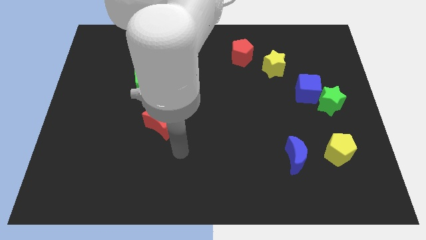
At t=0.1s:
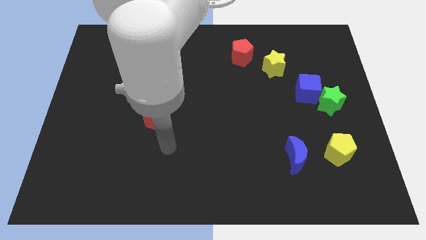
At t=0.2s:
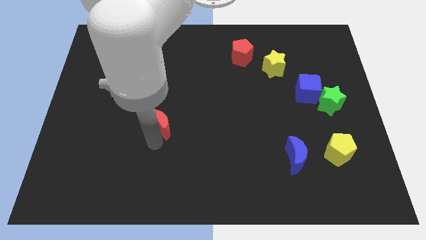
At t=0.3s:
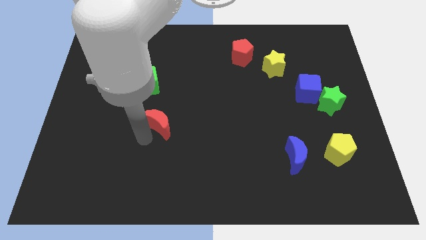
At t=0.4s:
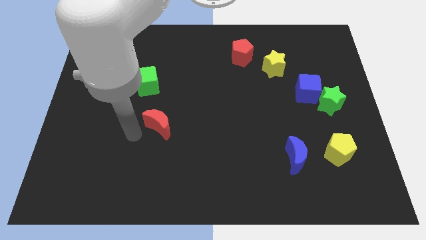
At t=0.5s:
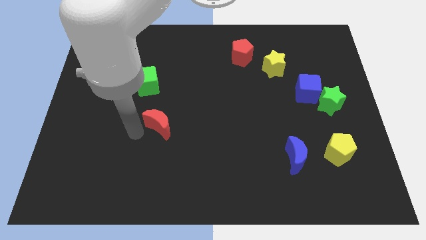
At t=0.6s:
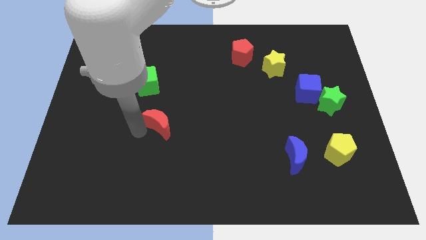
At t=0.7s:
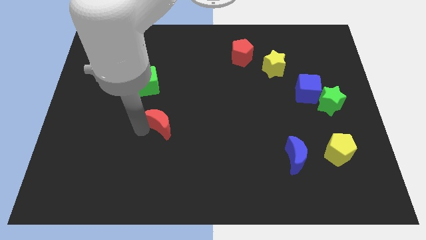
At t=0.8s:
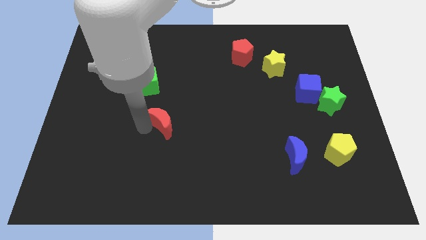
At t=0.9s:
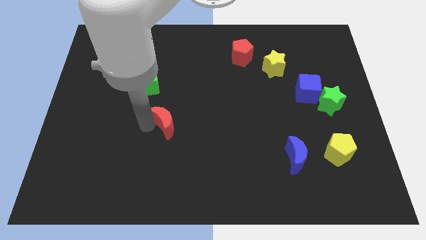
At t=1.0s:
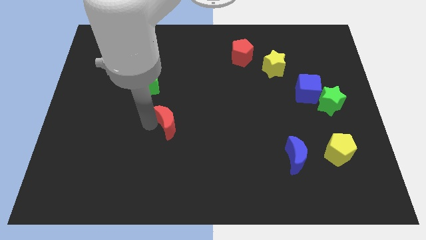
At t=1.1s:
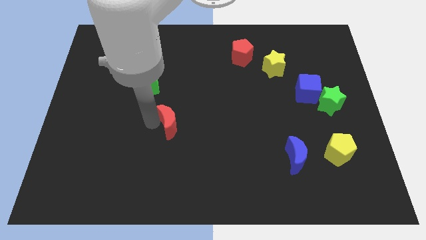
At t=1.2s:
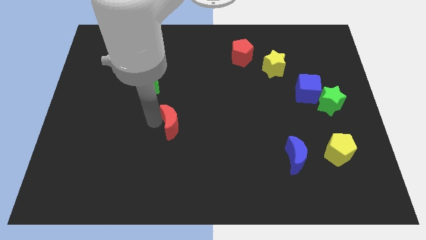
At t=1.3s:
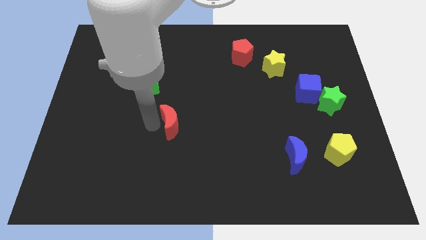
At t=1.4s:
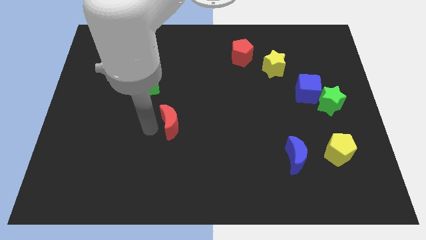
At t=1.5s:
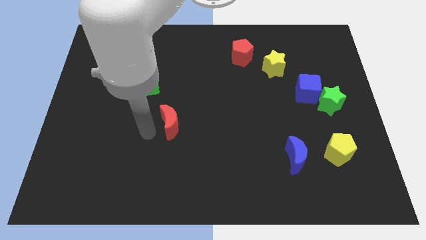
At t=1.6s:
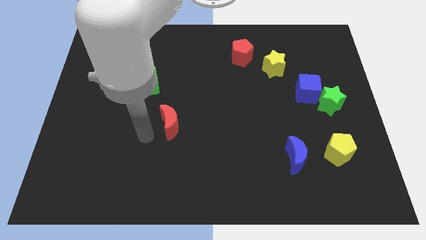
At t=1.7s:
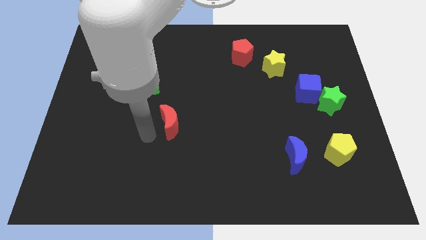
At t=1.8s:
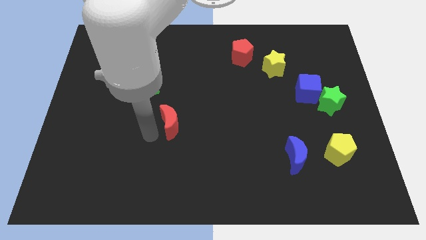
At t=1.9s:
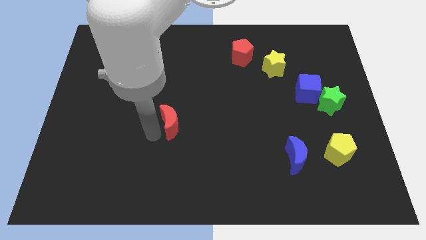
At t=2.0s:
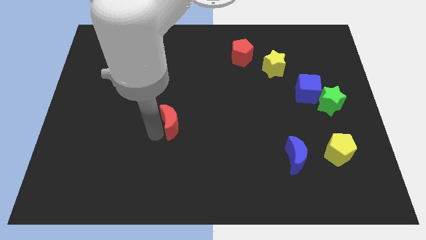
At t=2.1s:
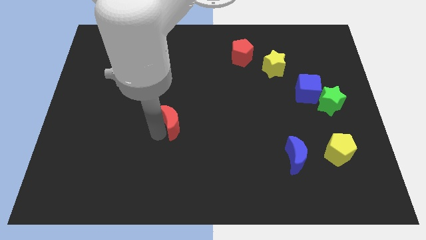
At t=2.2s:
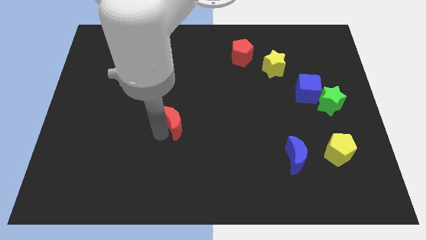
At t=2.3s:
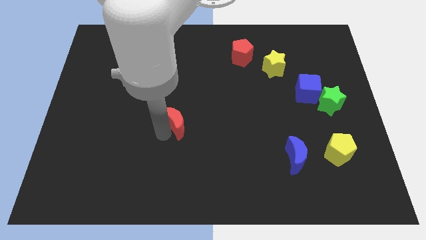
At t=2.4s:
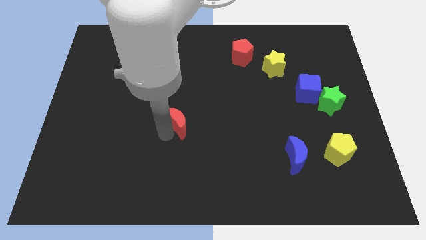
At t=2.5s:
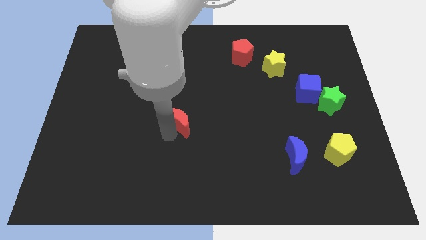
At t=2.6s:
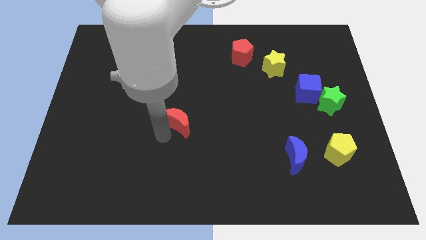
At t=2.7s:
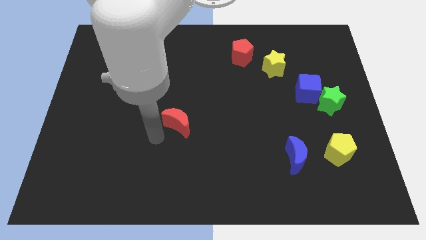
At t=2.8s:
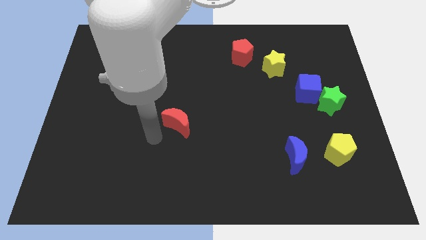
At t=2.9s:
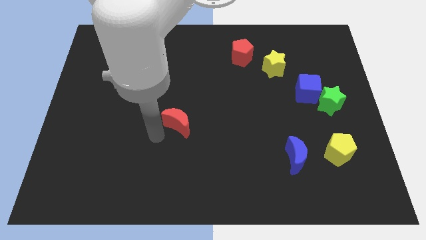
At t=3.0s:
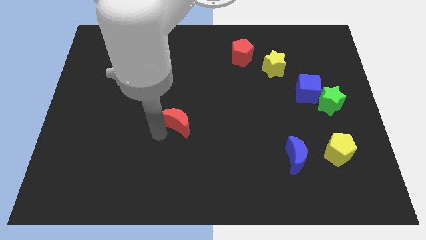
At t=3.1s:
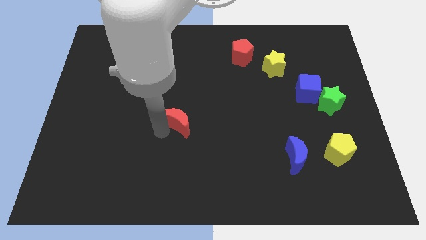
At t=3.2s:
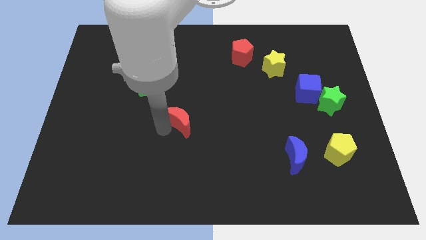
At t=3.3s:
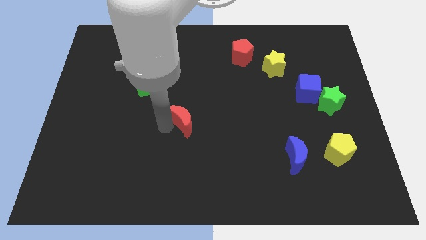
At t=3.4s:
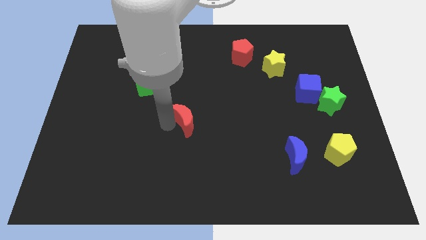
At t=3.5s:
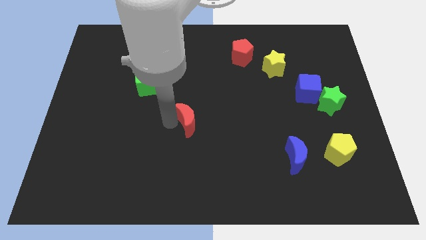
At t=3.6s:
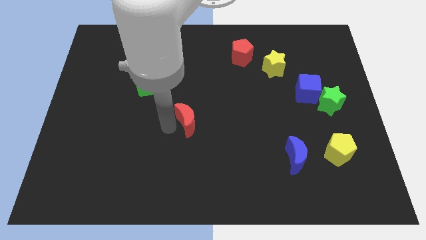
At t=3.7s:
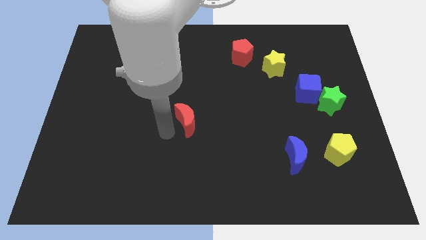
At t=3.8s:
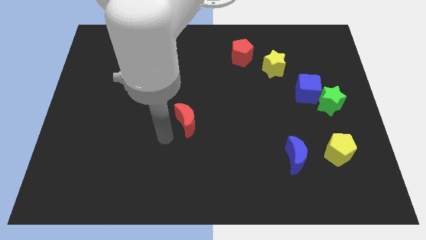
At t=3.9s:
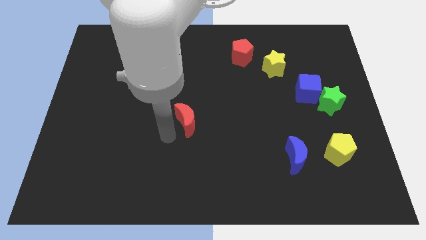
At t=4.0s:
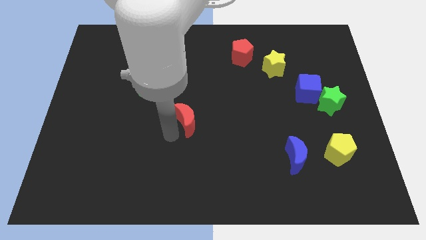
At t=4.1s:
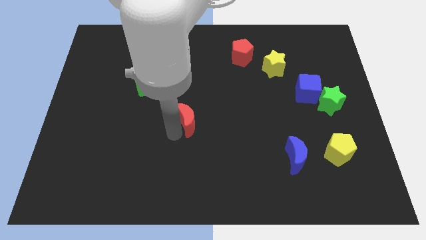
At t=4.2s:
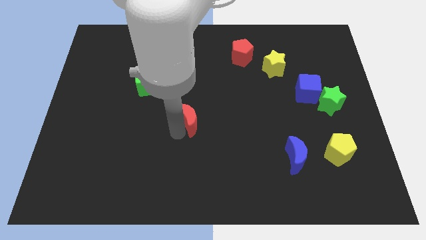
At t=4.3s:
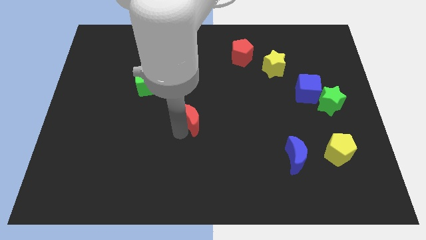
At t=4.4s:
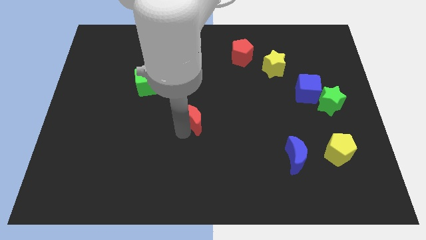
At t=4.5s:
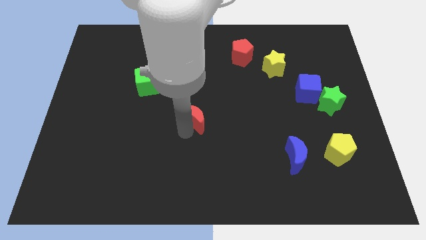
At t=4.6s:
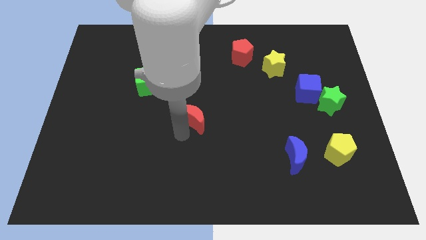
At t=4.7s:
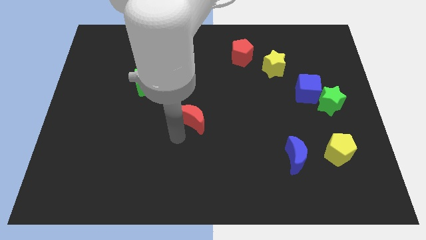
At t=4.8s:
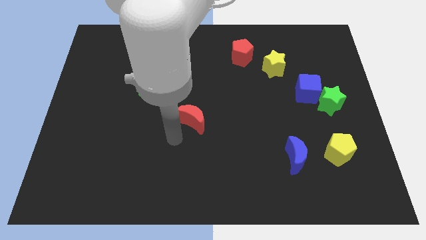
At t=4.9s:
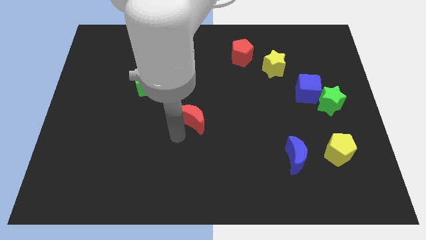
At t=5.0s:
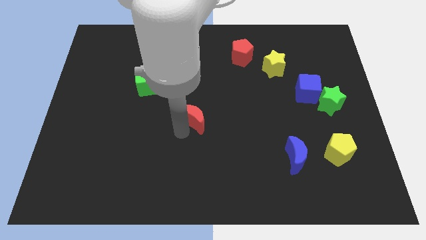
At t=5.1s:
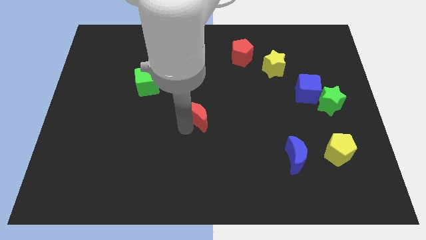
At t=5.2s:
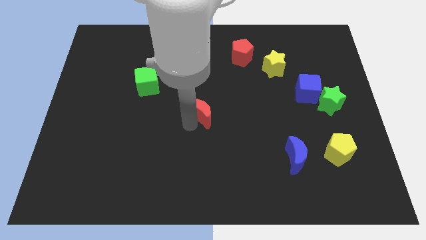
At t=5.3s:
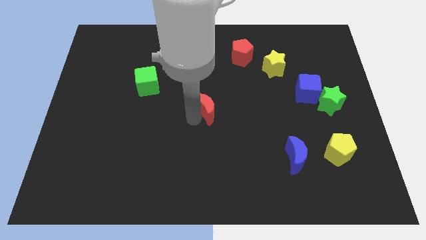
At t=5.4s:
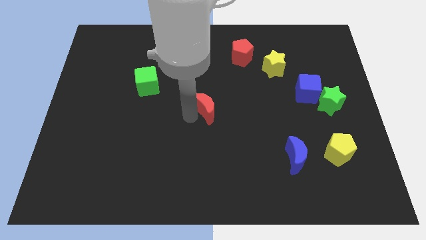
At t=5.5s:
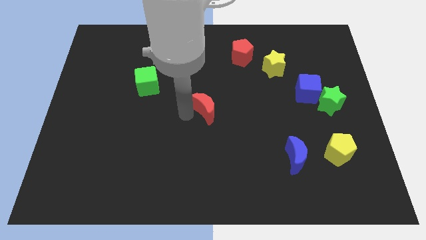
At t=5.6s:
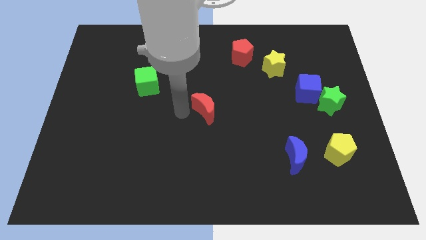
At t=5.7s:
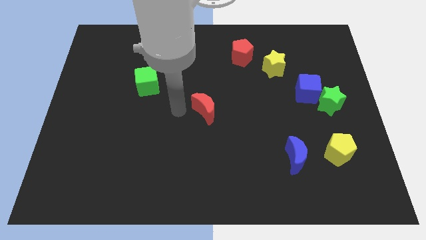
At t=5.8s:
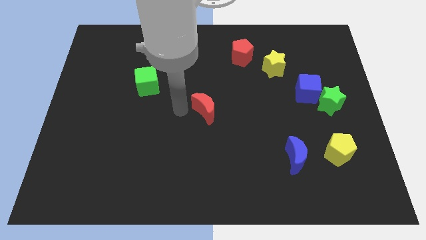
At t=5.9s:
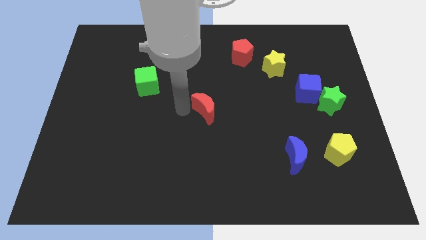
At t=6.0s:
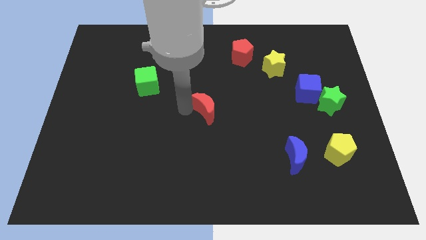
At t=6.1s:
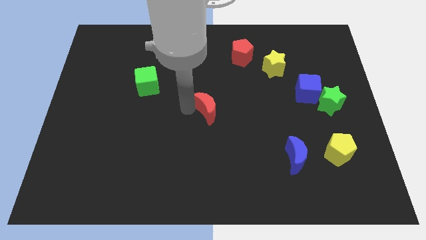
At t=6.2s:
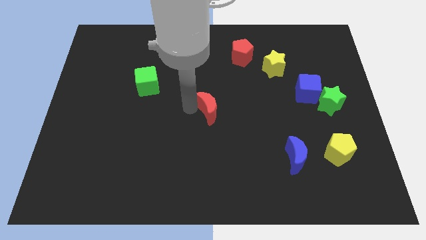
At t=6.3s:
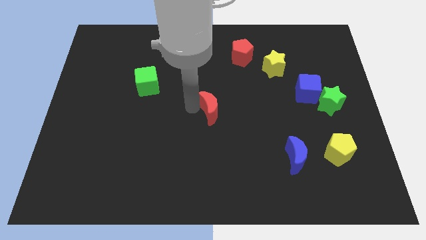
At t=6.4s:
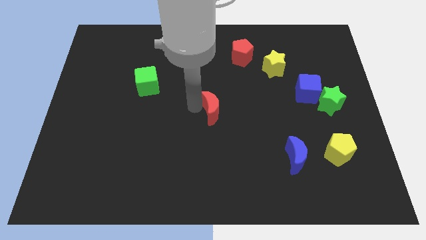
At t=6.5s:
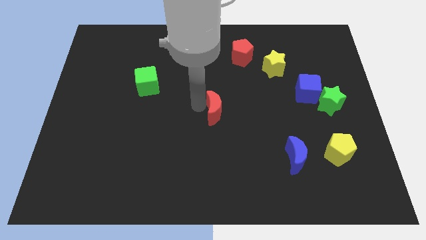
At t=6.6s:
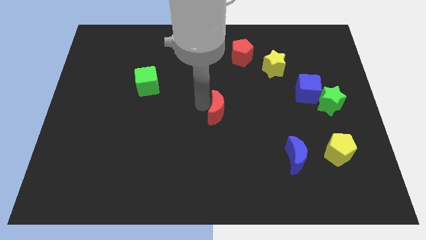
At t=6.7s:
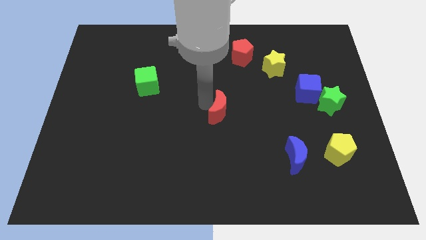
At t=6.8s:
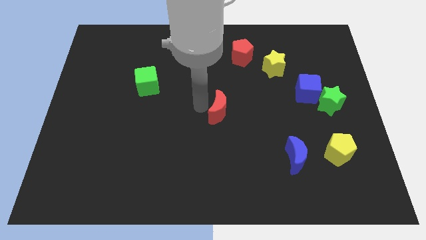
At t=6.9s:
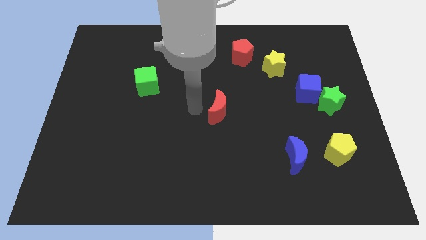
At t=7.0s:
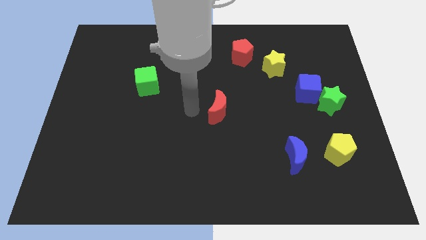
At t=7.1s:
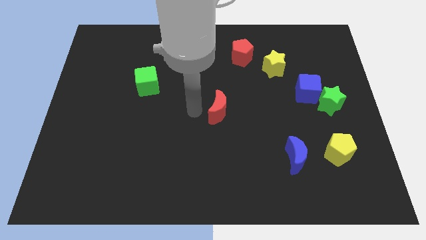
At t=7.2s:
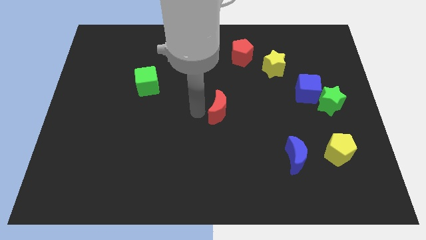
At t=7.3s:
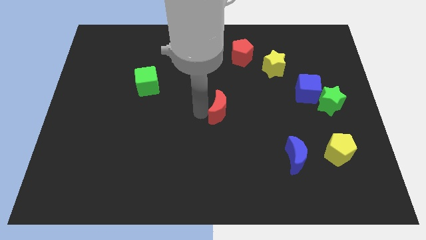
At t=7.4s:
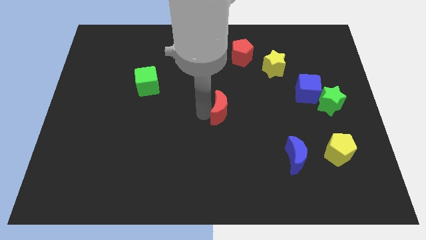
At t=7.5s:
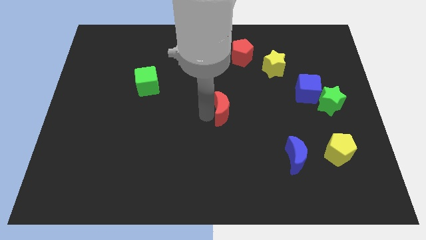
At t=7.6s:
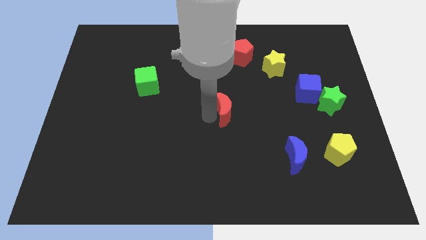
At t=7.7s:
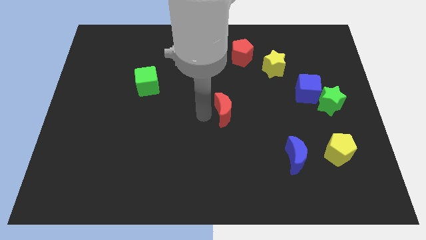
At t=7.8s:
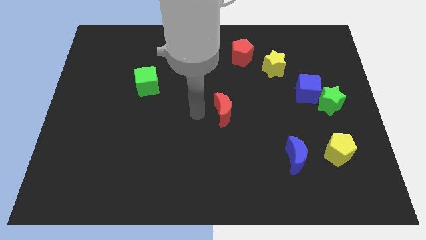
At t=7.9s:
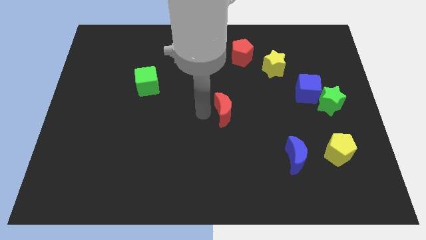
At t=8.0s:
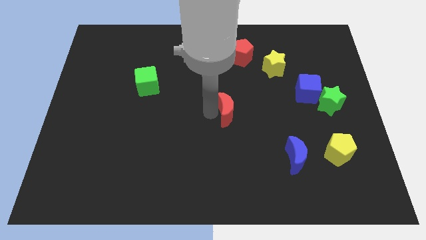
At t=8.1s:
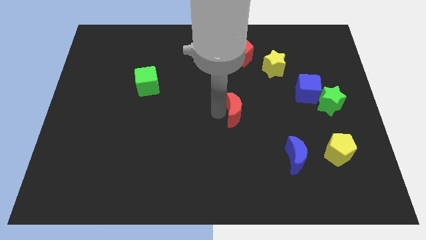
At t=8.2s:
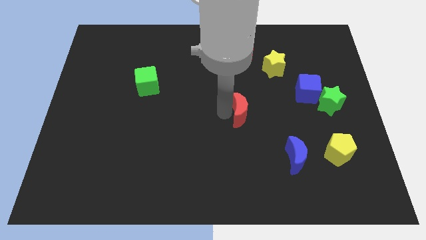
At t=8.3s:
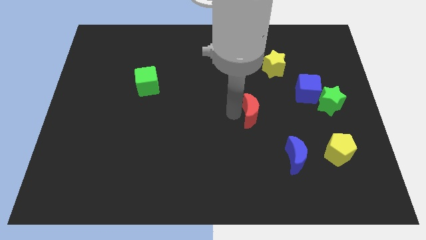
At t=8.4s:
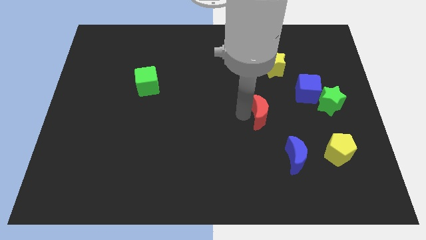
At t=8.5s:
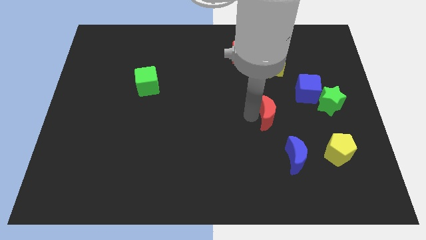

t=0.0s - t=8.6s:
put the red moon diagonally down and to the left of the blue cube
